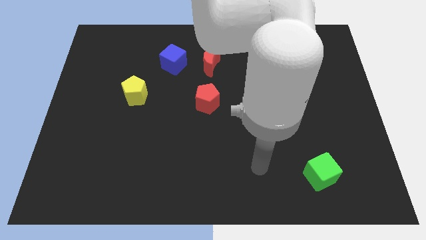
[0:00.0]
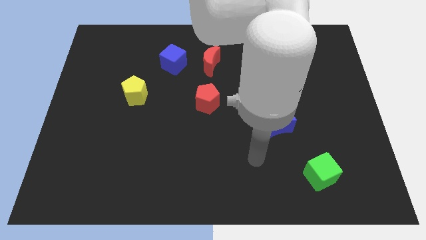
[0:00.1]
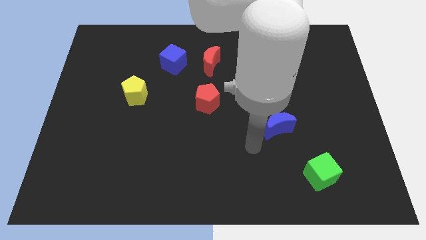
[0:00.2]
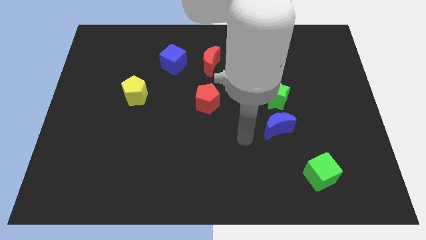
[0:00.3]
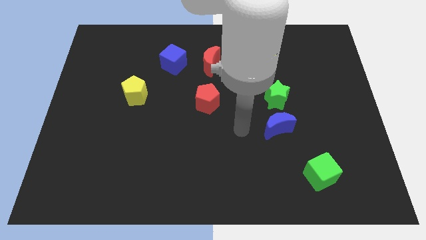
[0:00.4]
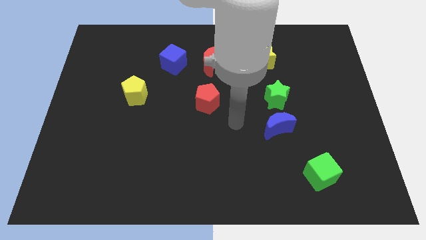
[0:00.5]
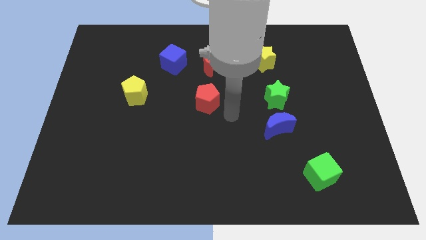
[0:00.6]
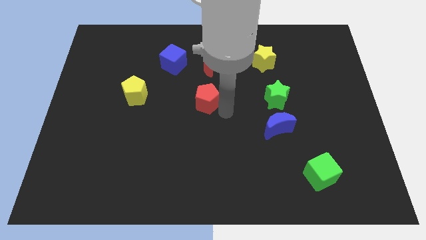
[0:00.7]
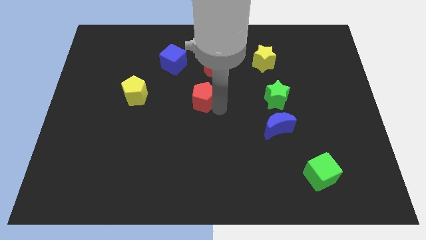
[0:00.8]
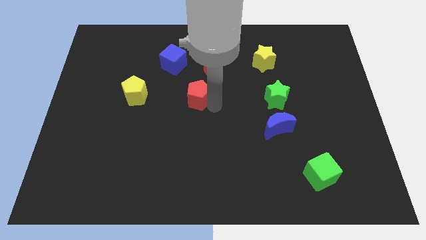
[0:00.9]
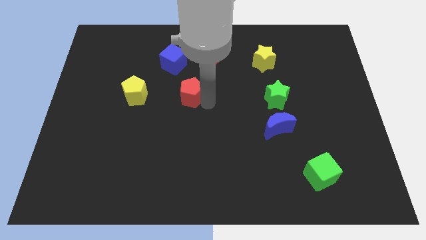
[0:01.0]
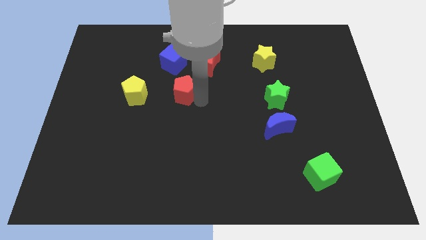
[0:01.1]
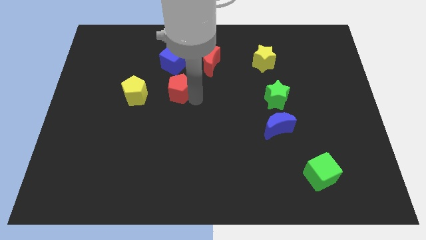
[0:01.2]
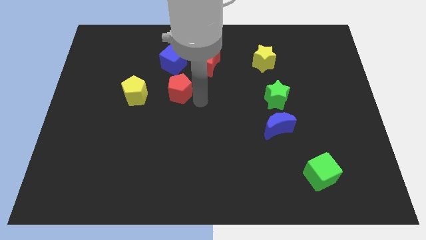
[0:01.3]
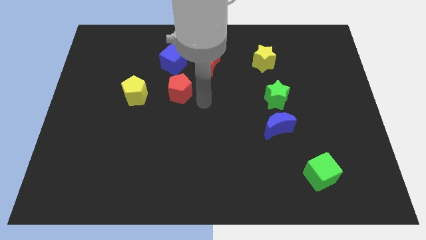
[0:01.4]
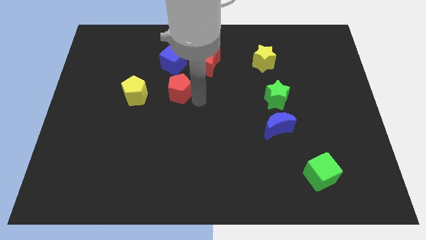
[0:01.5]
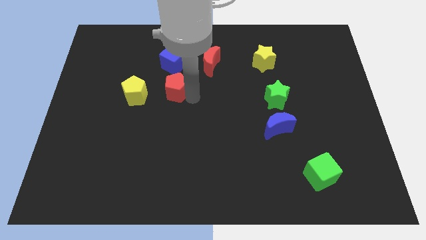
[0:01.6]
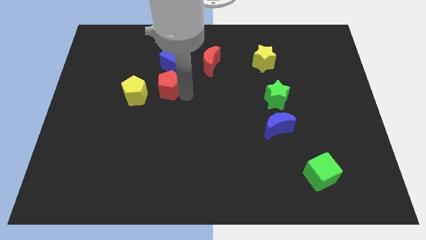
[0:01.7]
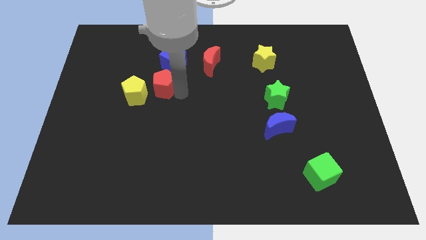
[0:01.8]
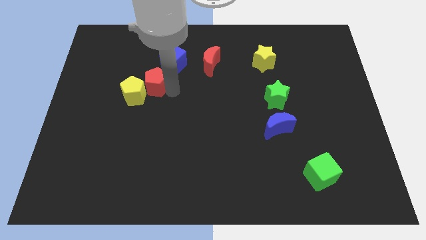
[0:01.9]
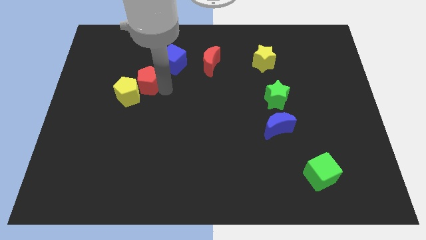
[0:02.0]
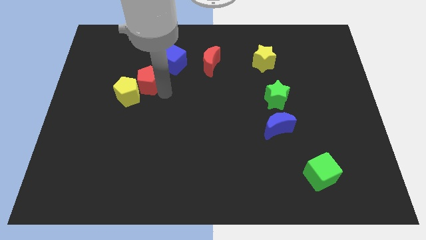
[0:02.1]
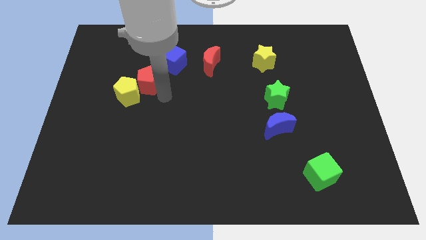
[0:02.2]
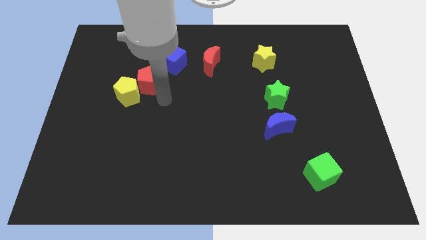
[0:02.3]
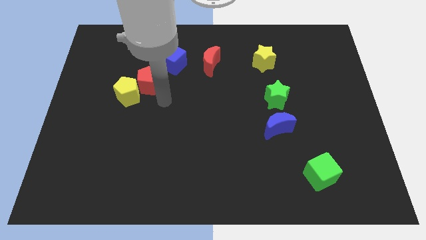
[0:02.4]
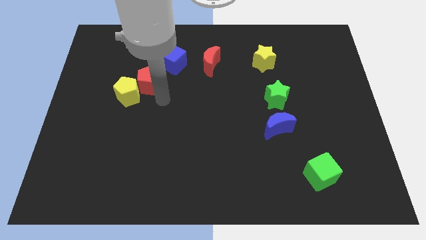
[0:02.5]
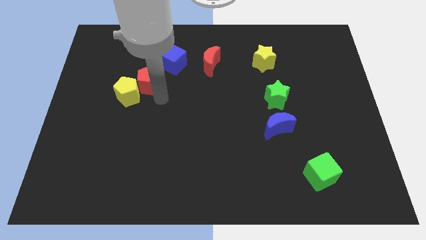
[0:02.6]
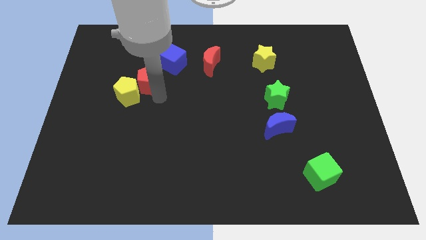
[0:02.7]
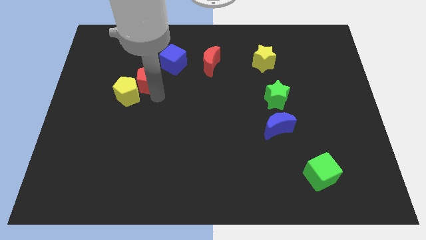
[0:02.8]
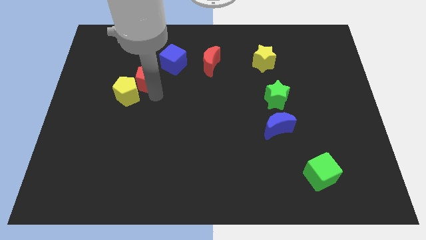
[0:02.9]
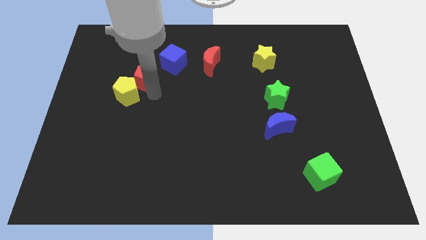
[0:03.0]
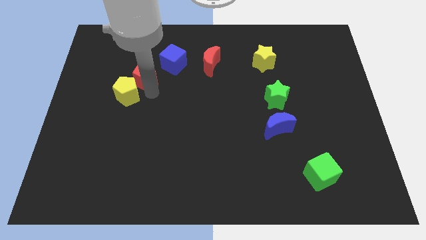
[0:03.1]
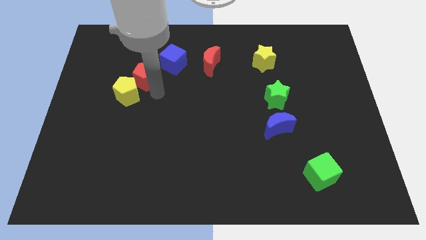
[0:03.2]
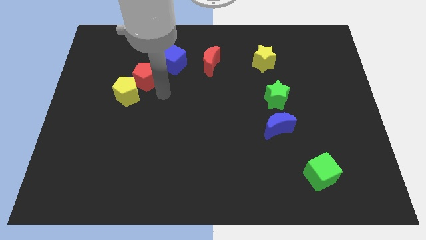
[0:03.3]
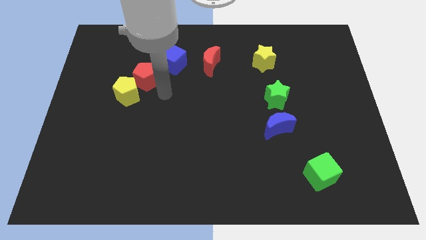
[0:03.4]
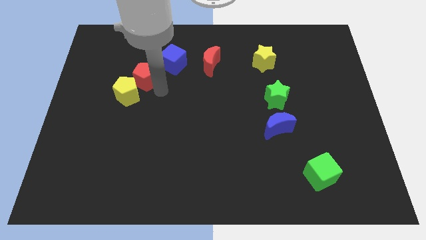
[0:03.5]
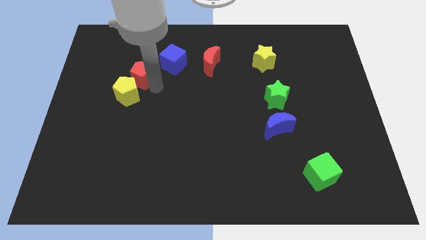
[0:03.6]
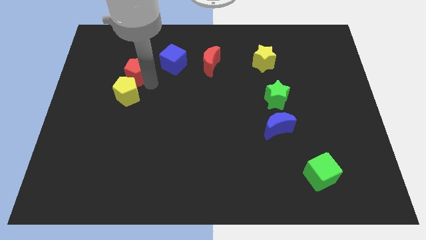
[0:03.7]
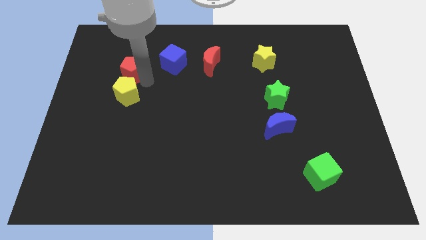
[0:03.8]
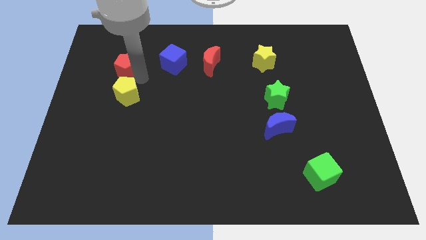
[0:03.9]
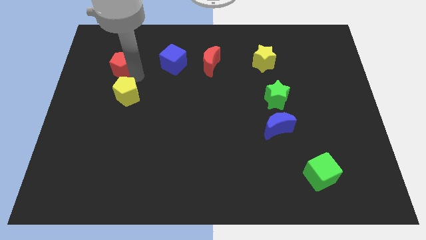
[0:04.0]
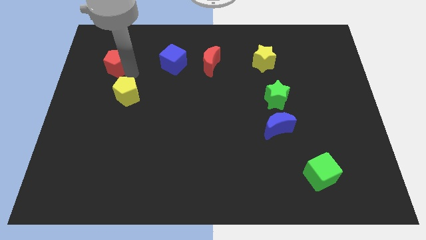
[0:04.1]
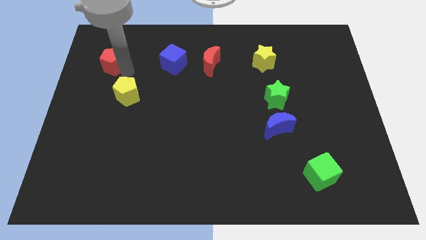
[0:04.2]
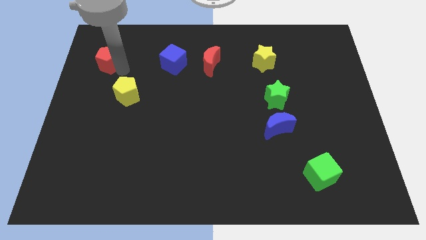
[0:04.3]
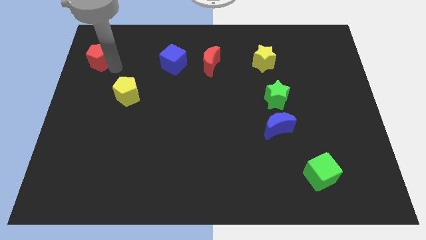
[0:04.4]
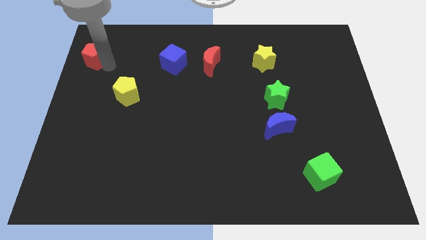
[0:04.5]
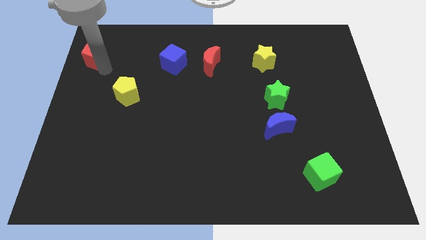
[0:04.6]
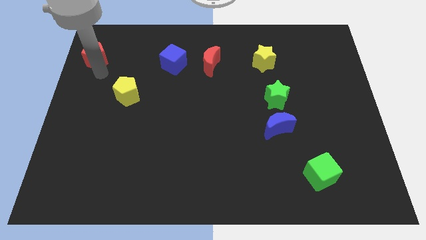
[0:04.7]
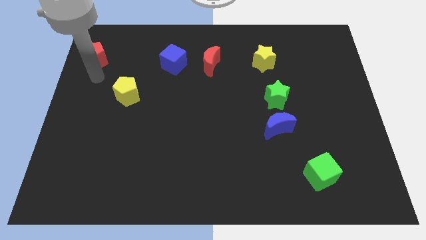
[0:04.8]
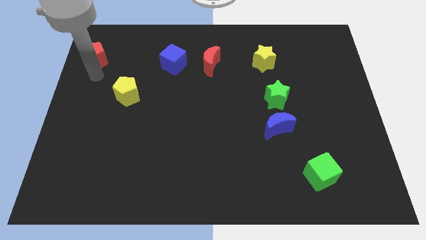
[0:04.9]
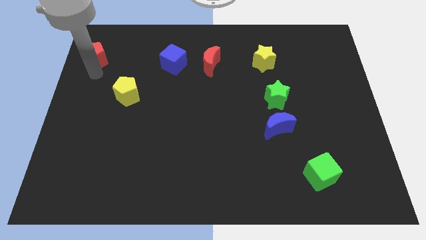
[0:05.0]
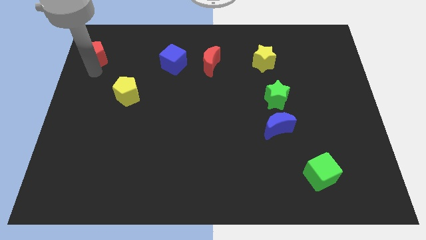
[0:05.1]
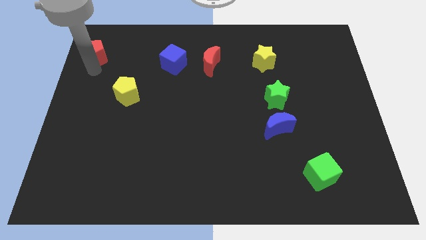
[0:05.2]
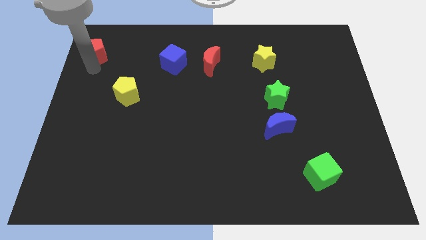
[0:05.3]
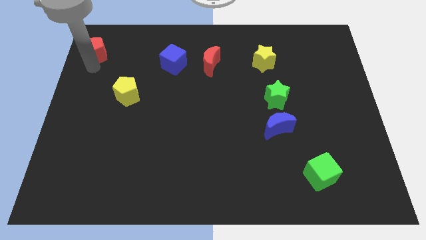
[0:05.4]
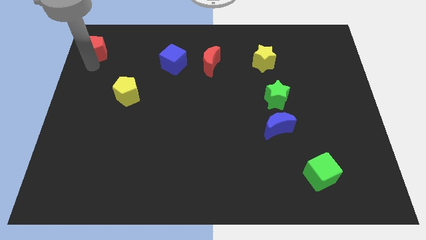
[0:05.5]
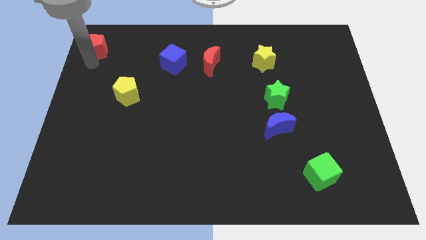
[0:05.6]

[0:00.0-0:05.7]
push the red pentagon to the top left
